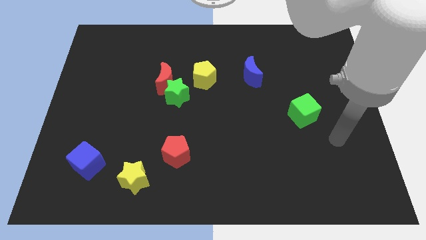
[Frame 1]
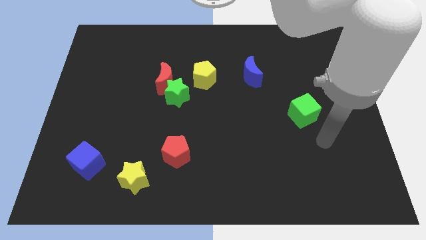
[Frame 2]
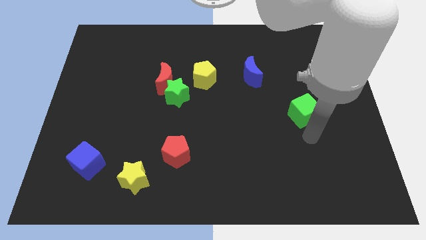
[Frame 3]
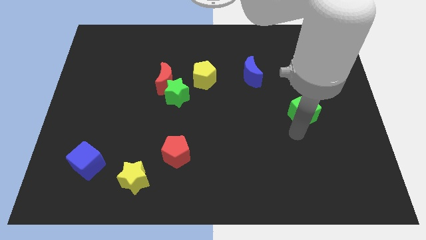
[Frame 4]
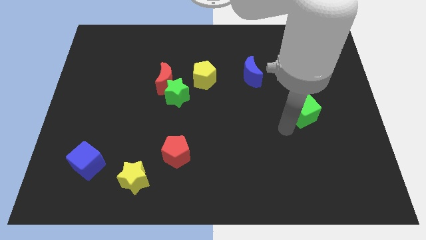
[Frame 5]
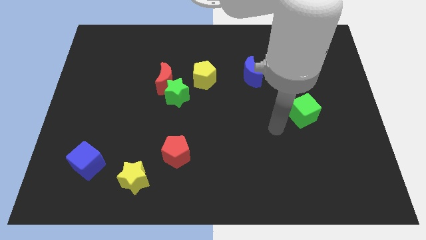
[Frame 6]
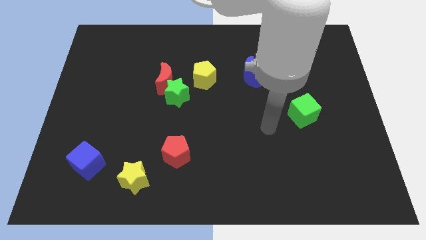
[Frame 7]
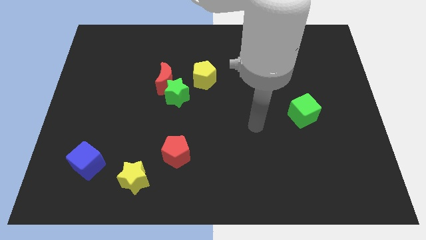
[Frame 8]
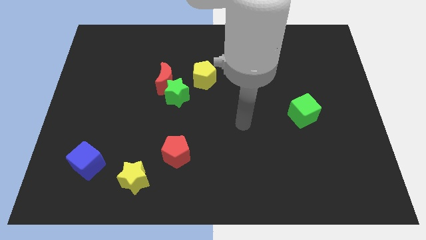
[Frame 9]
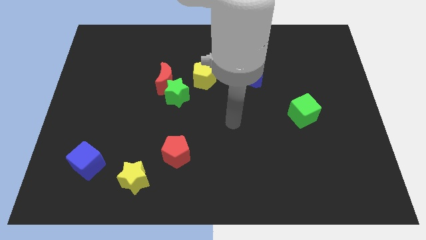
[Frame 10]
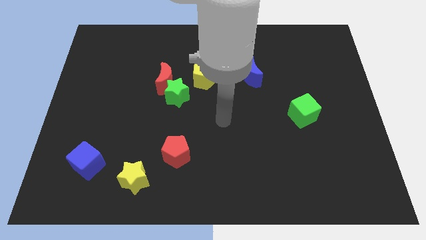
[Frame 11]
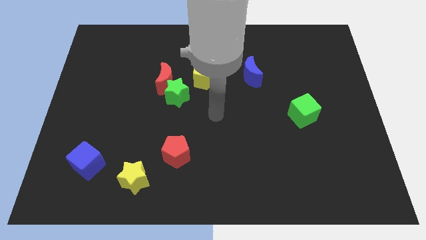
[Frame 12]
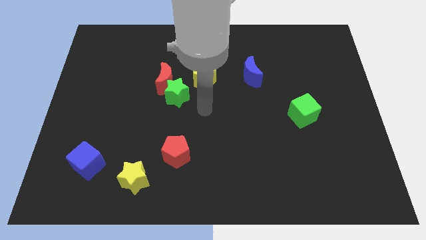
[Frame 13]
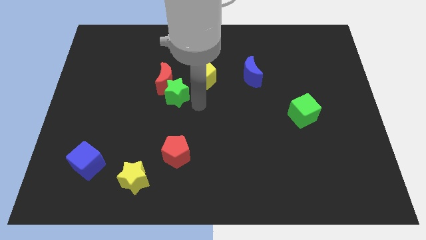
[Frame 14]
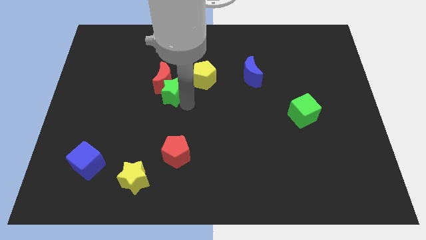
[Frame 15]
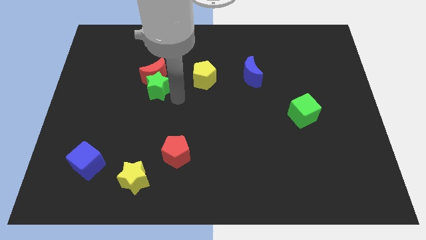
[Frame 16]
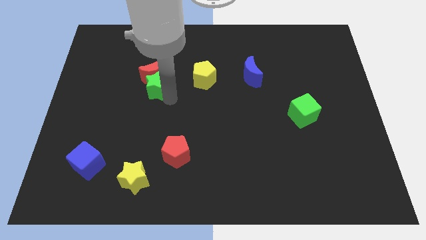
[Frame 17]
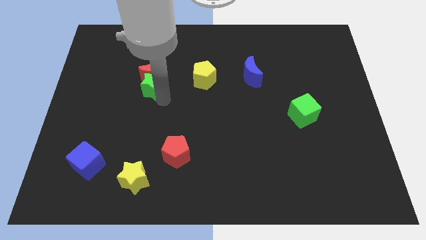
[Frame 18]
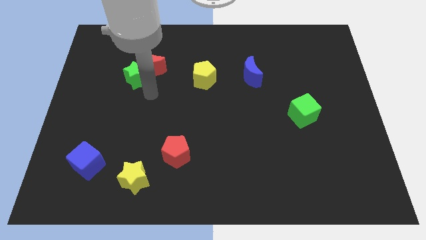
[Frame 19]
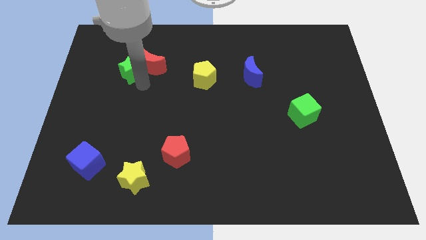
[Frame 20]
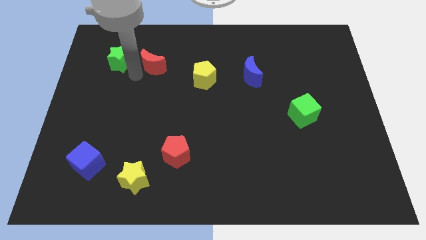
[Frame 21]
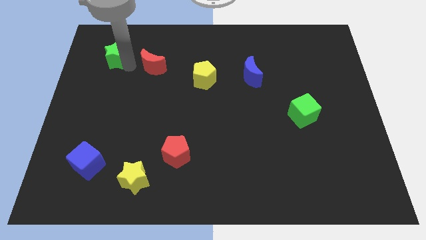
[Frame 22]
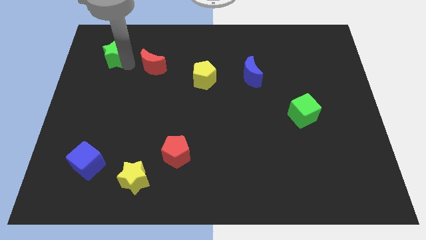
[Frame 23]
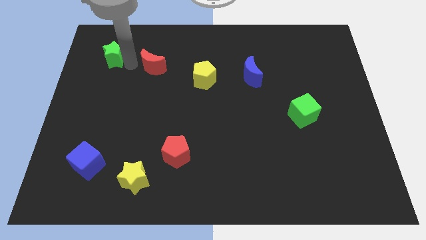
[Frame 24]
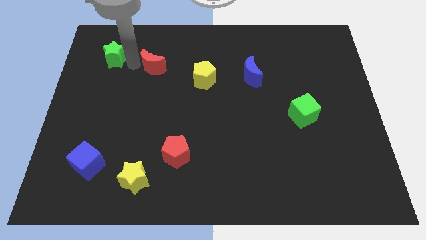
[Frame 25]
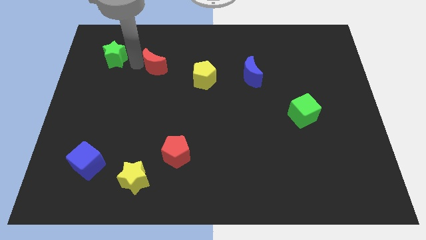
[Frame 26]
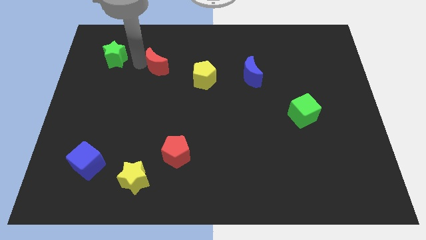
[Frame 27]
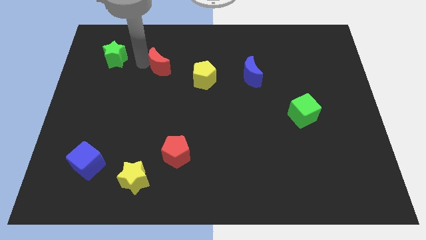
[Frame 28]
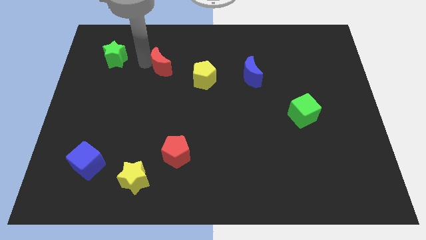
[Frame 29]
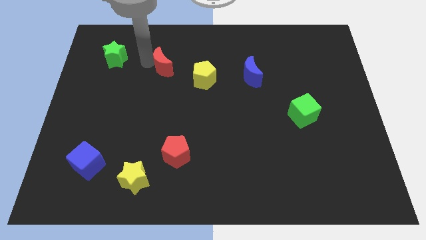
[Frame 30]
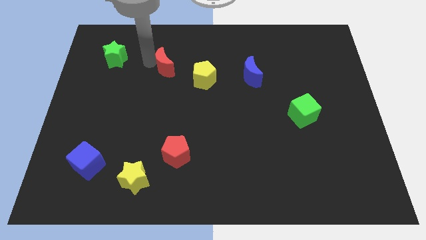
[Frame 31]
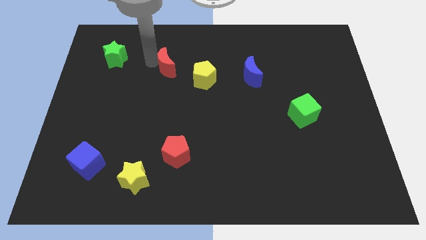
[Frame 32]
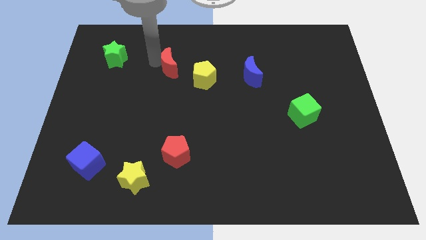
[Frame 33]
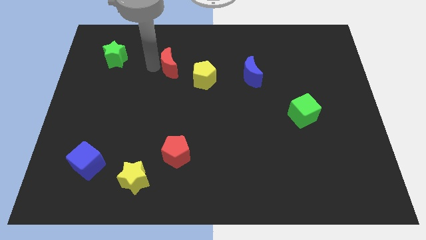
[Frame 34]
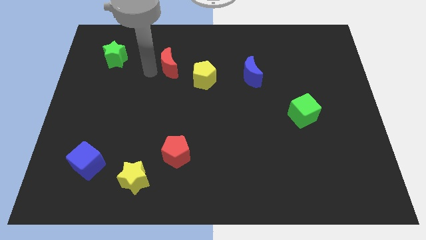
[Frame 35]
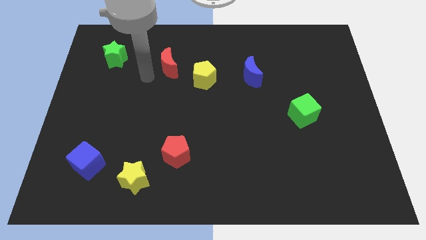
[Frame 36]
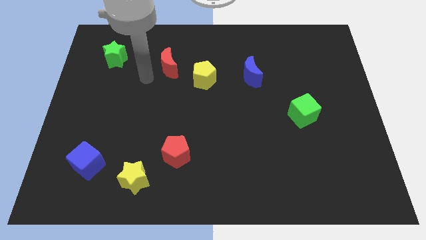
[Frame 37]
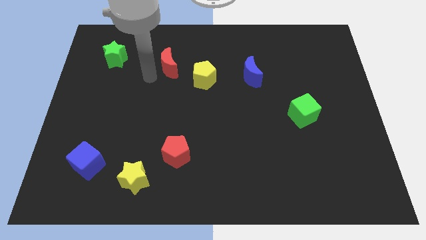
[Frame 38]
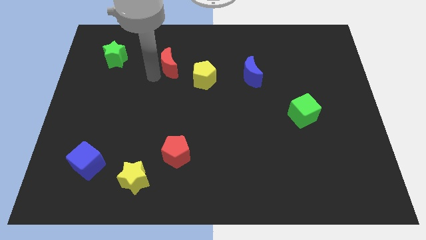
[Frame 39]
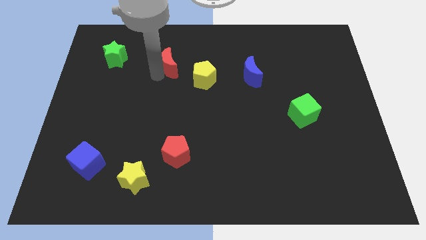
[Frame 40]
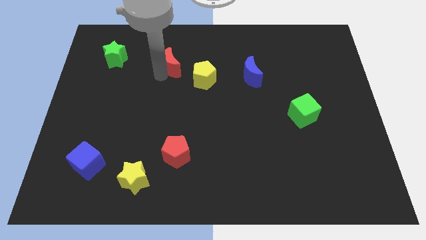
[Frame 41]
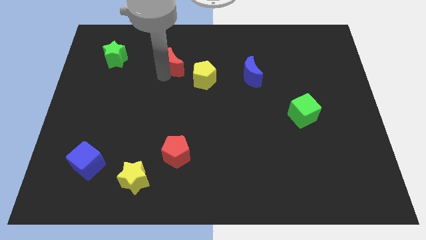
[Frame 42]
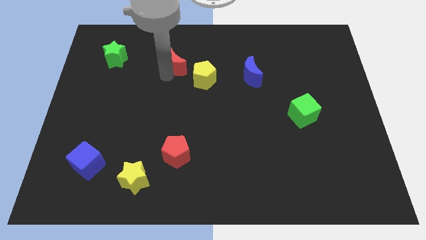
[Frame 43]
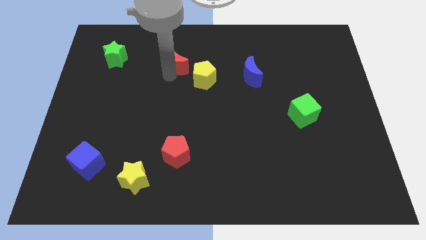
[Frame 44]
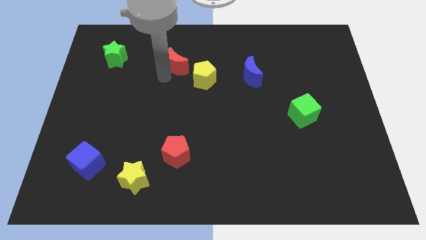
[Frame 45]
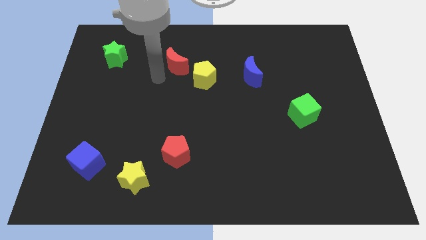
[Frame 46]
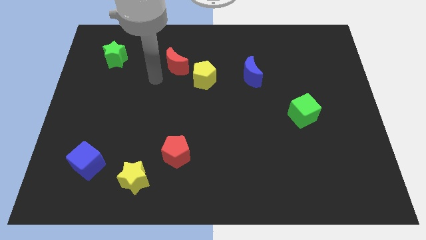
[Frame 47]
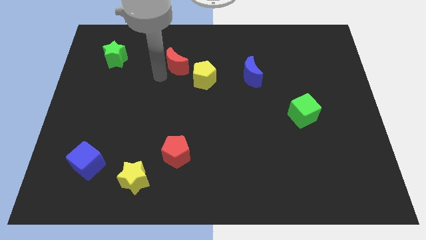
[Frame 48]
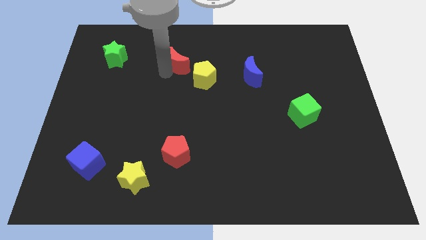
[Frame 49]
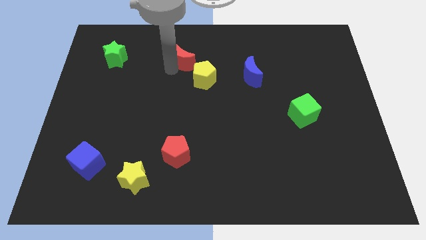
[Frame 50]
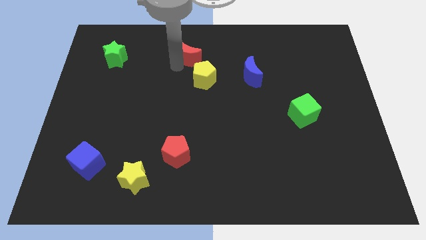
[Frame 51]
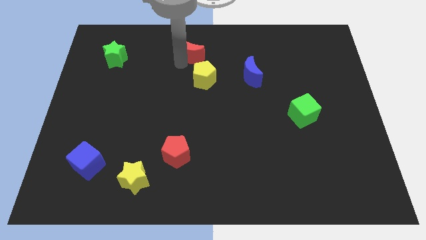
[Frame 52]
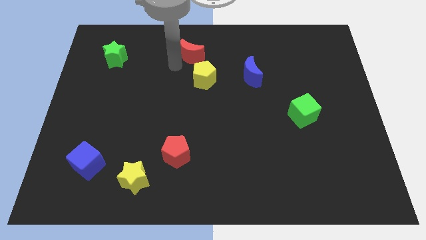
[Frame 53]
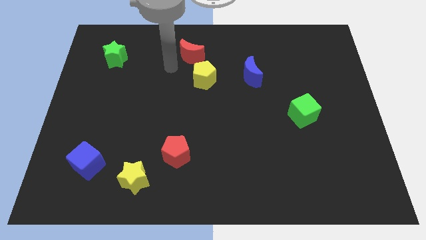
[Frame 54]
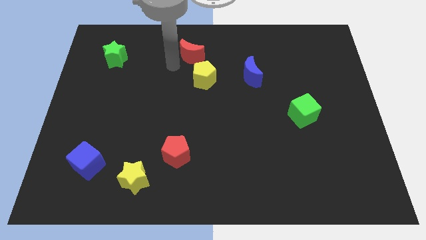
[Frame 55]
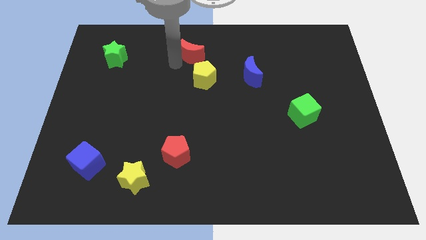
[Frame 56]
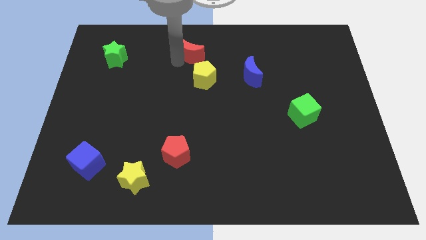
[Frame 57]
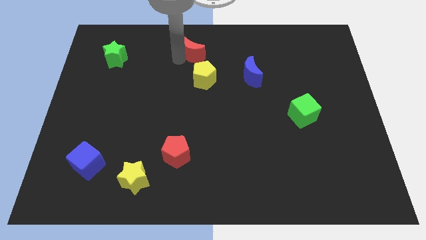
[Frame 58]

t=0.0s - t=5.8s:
move the red moon to the top side
